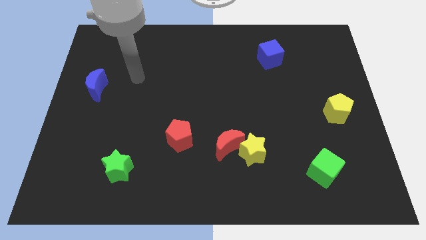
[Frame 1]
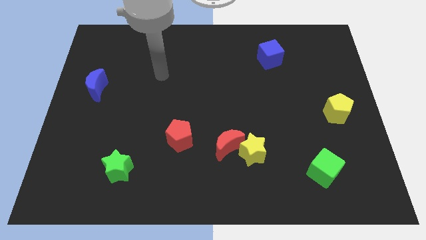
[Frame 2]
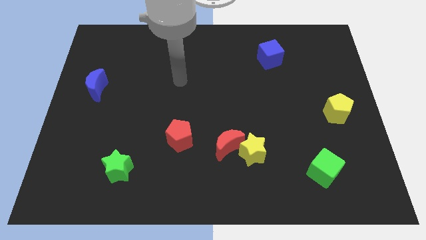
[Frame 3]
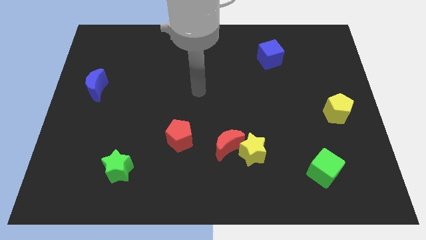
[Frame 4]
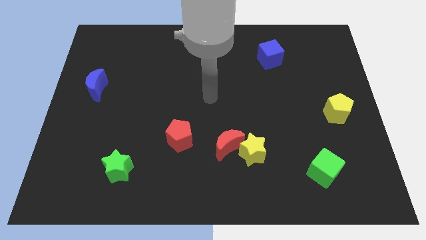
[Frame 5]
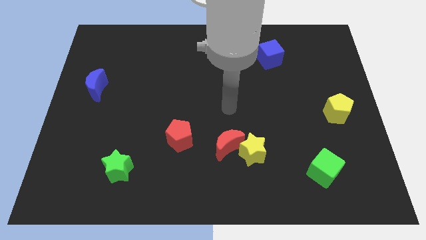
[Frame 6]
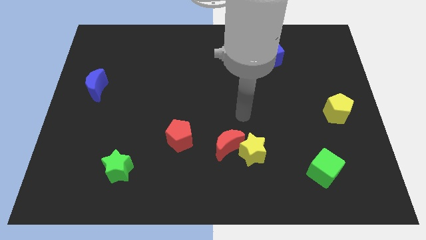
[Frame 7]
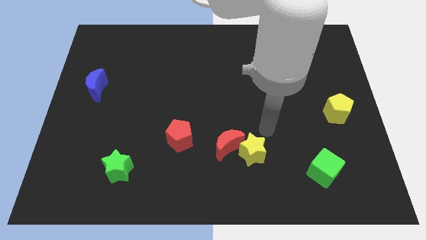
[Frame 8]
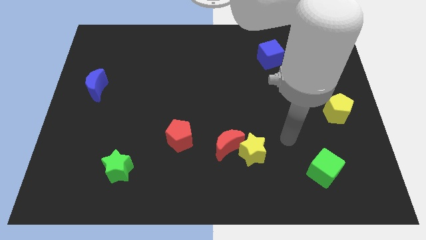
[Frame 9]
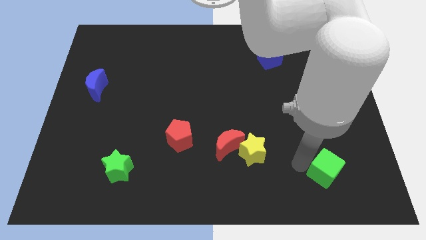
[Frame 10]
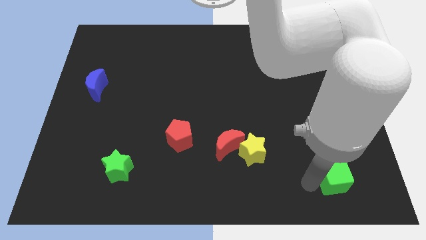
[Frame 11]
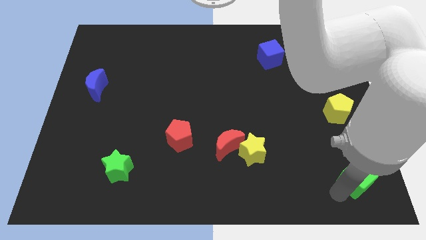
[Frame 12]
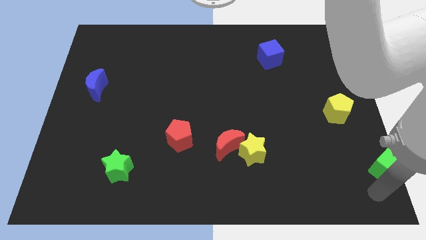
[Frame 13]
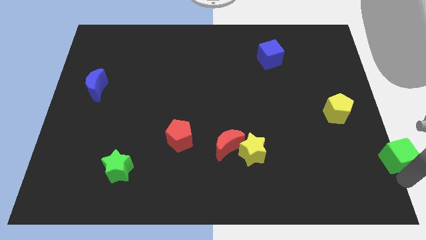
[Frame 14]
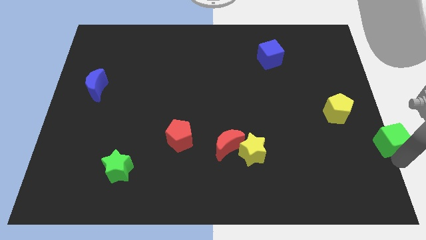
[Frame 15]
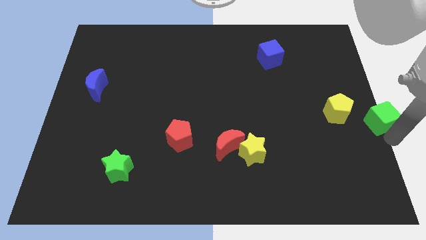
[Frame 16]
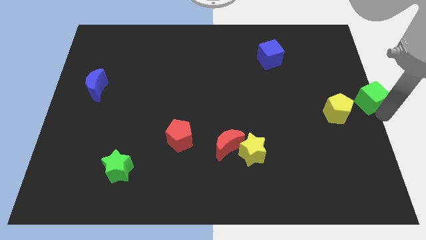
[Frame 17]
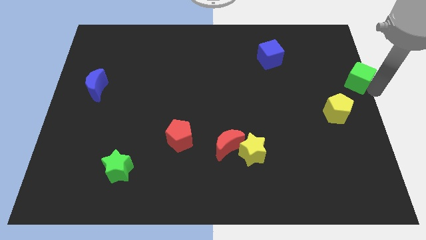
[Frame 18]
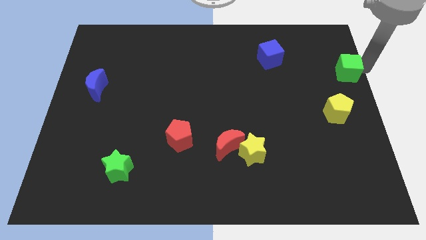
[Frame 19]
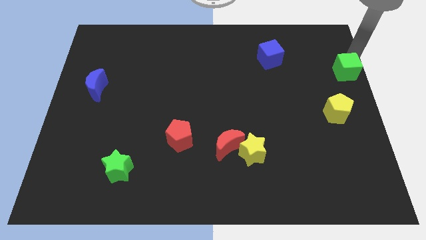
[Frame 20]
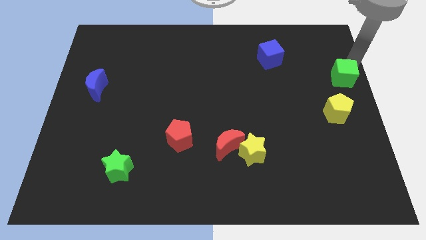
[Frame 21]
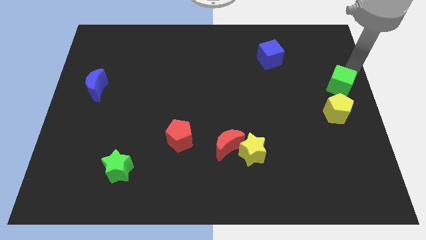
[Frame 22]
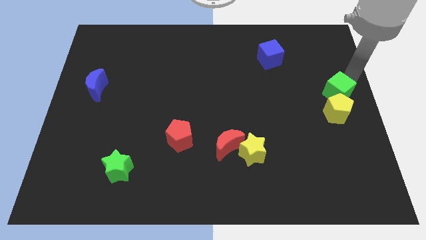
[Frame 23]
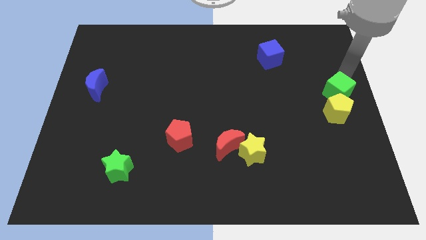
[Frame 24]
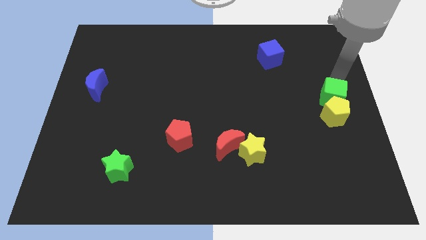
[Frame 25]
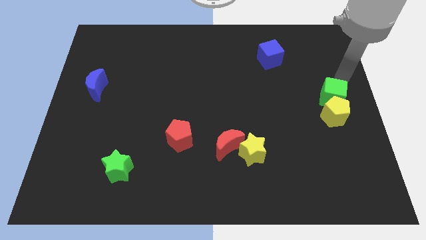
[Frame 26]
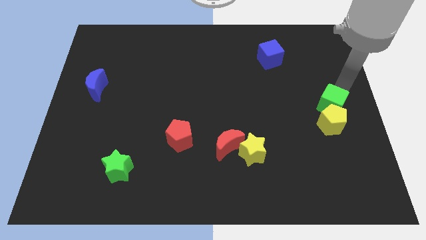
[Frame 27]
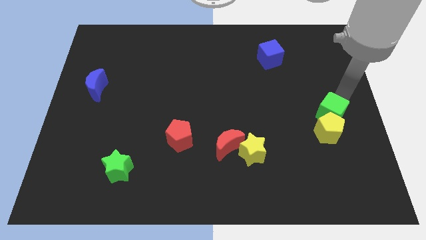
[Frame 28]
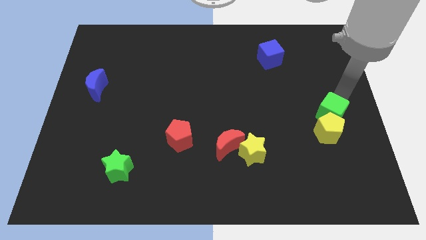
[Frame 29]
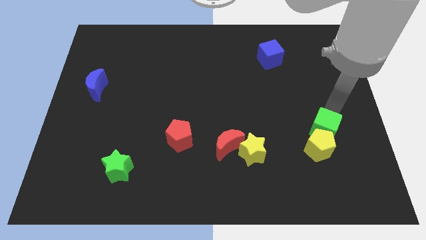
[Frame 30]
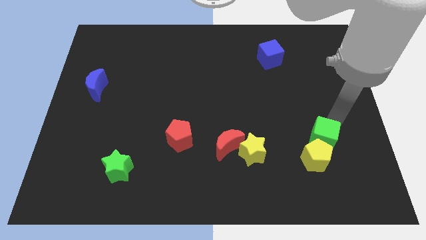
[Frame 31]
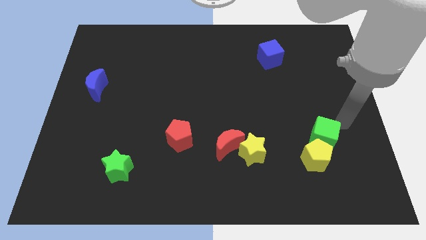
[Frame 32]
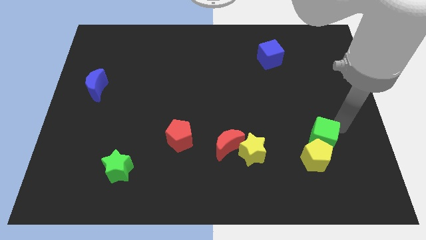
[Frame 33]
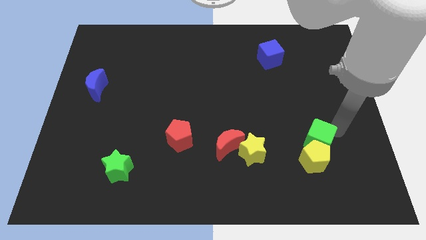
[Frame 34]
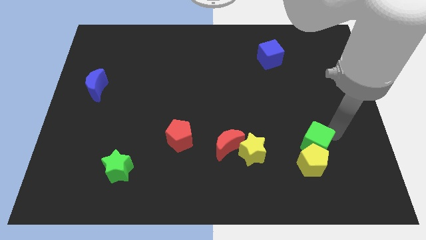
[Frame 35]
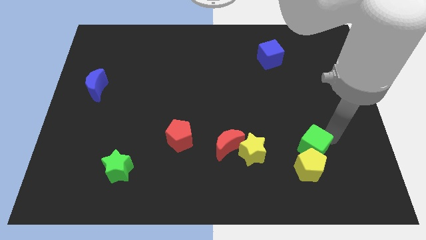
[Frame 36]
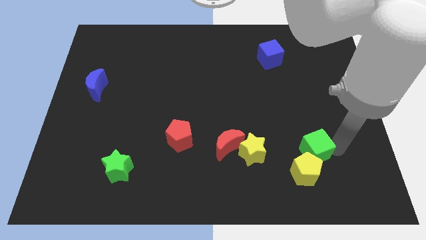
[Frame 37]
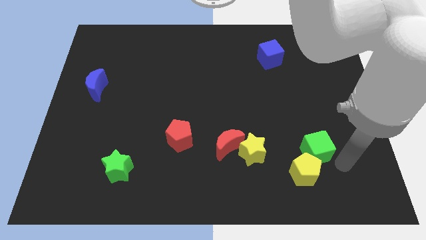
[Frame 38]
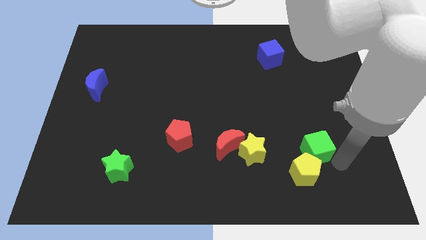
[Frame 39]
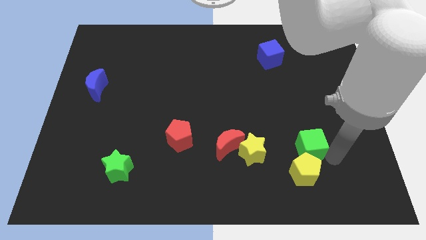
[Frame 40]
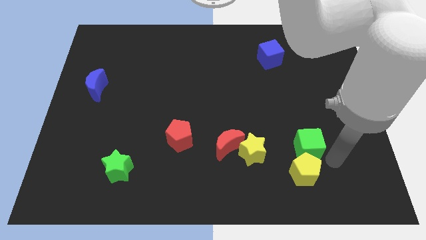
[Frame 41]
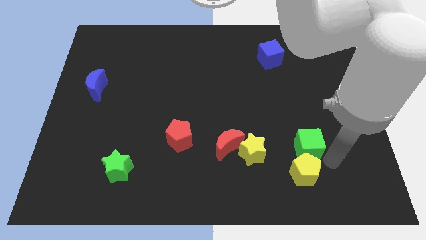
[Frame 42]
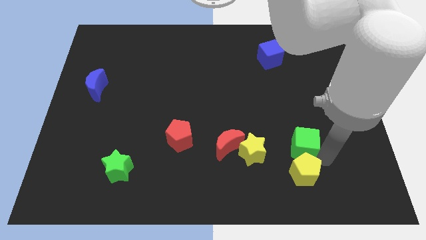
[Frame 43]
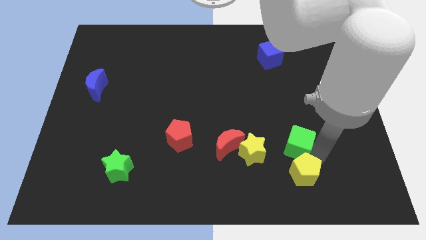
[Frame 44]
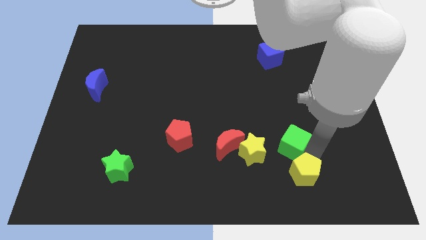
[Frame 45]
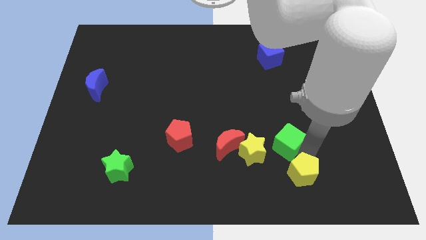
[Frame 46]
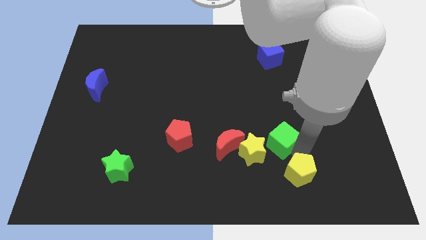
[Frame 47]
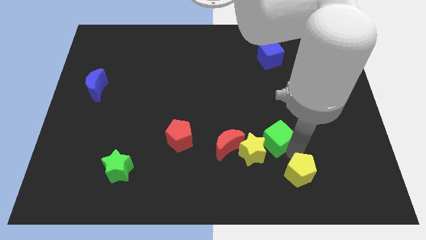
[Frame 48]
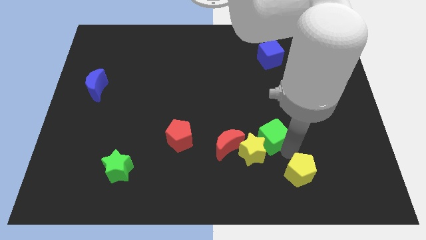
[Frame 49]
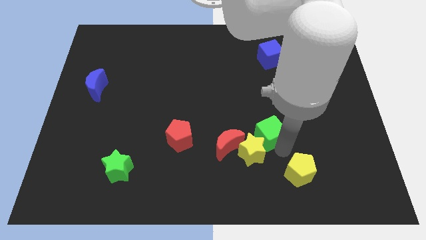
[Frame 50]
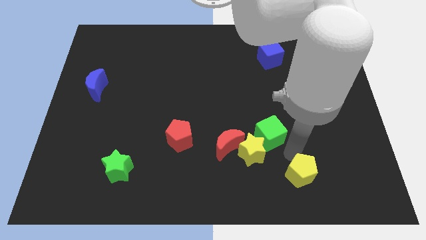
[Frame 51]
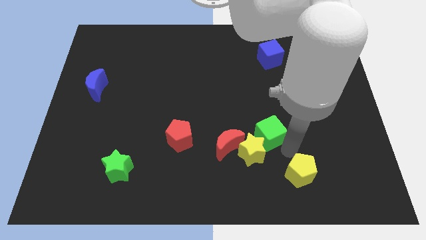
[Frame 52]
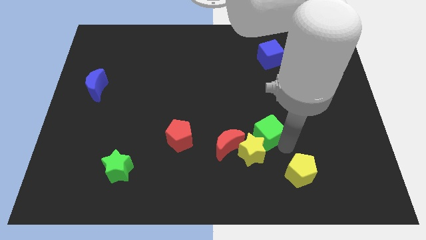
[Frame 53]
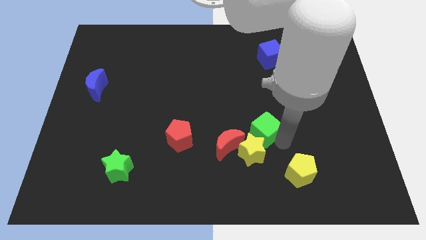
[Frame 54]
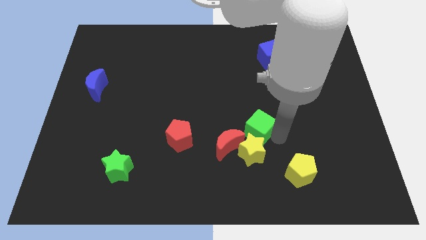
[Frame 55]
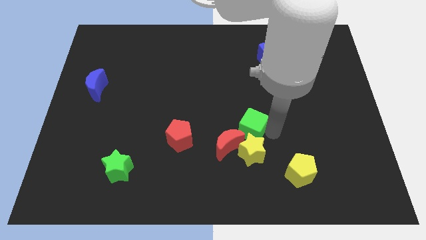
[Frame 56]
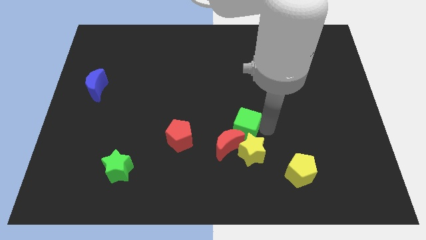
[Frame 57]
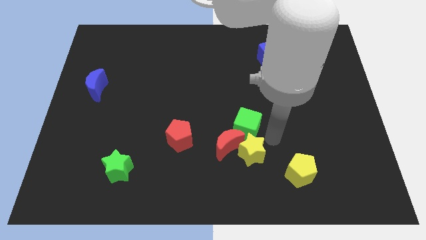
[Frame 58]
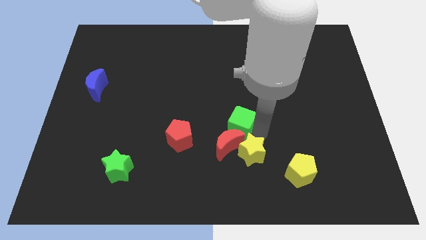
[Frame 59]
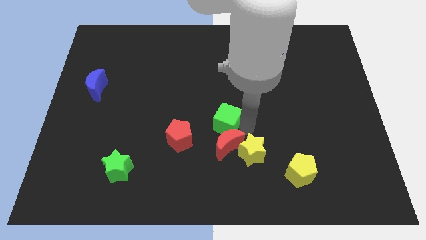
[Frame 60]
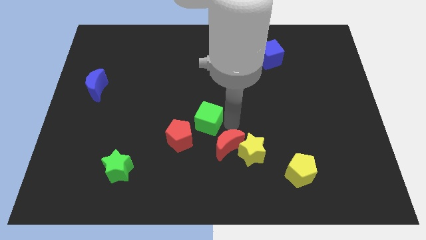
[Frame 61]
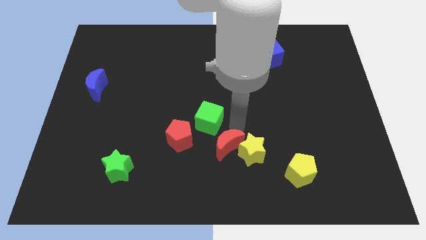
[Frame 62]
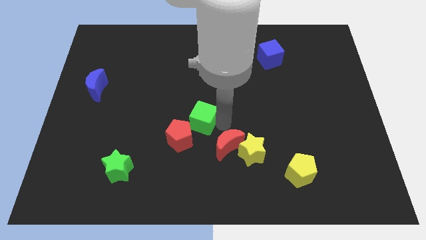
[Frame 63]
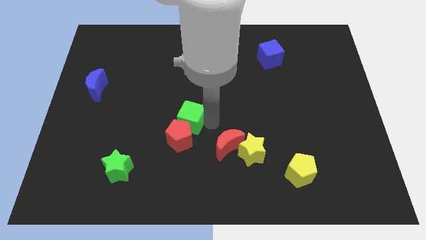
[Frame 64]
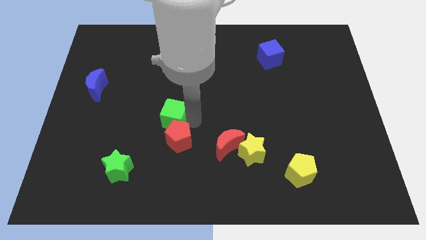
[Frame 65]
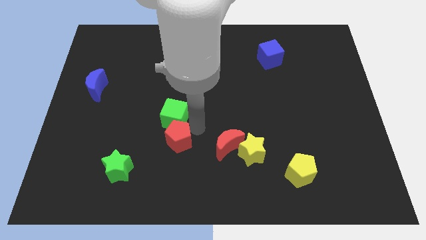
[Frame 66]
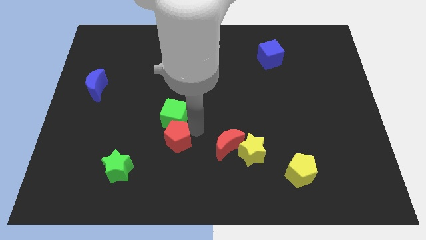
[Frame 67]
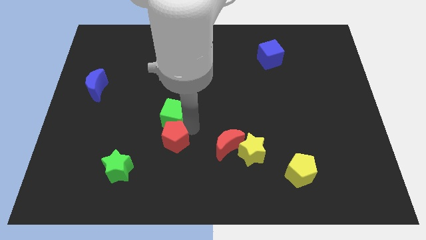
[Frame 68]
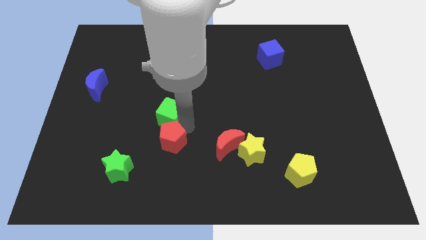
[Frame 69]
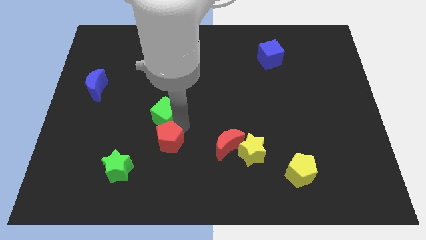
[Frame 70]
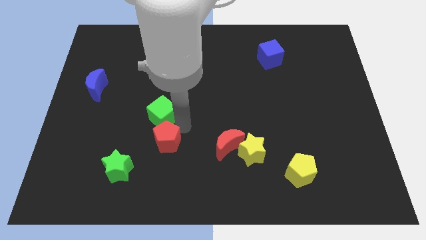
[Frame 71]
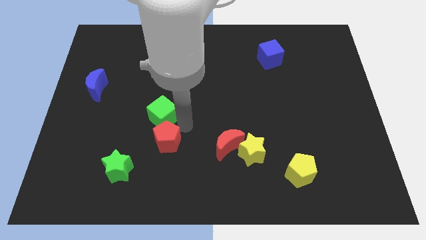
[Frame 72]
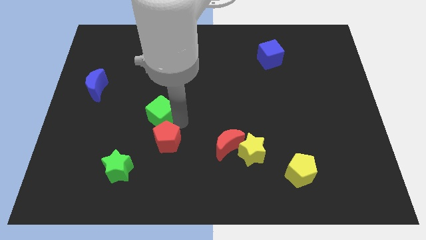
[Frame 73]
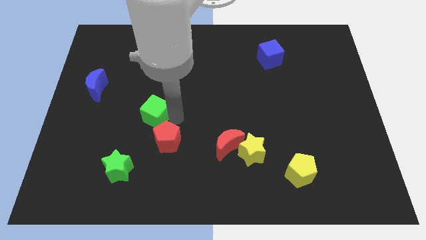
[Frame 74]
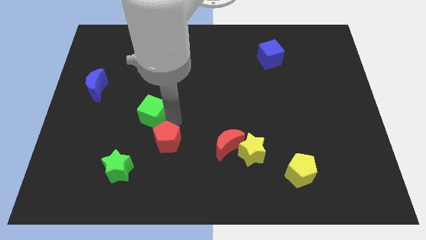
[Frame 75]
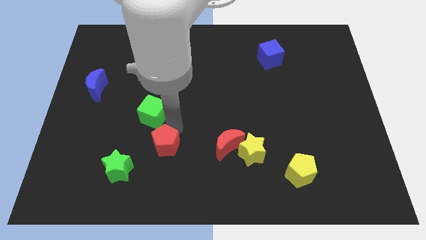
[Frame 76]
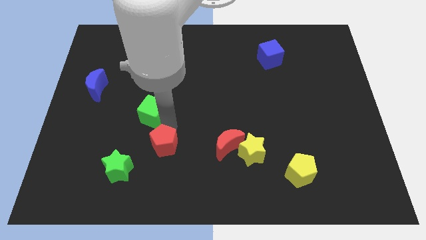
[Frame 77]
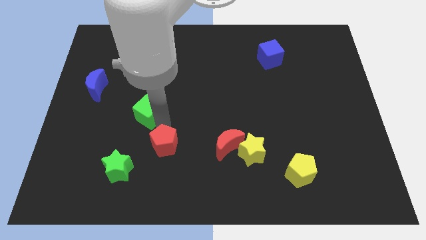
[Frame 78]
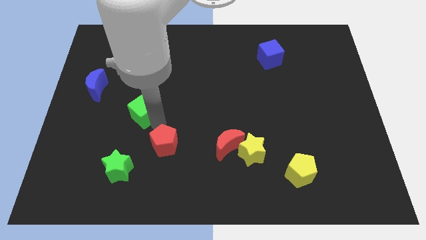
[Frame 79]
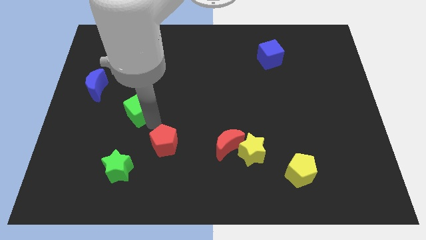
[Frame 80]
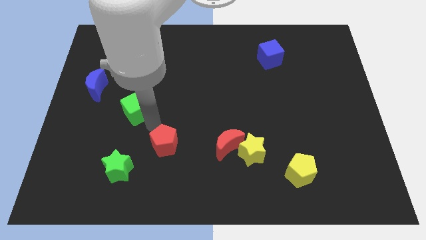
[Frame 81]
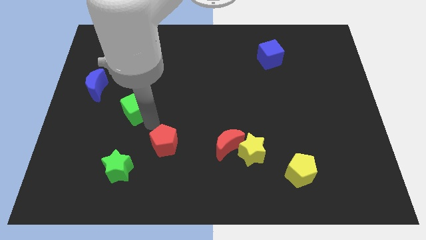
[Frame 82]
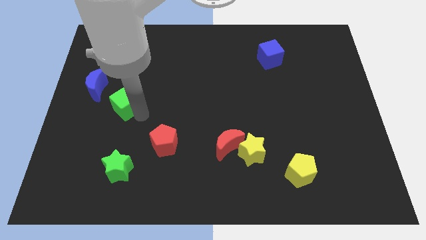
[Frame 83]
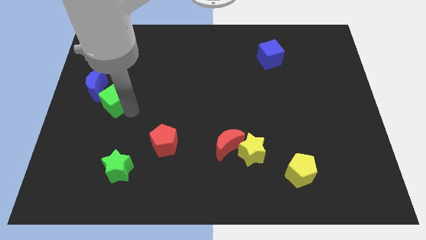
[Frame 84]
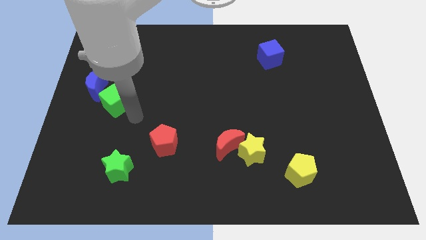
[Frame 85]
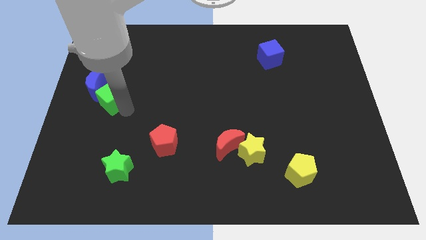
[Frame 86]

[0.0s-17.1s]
slide the green cube towards the blue moon
